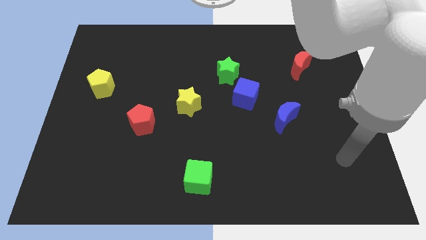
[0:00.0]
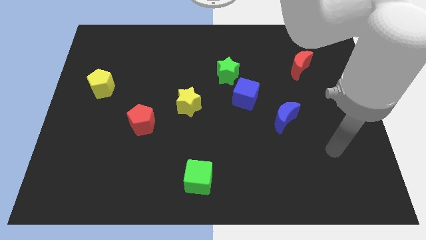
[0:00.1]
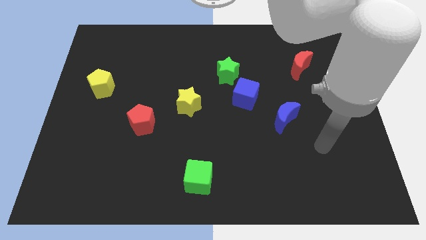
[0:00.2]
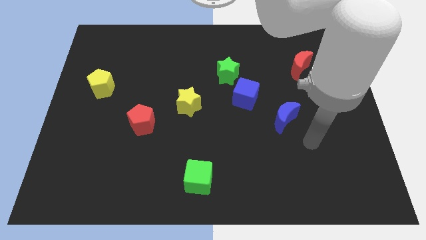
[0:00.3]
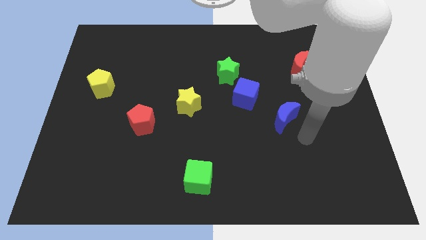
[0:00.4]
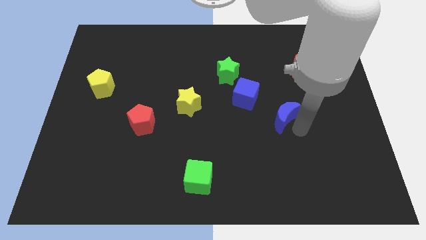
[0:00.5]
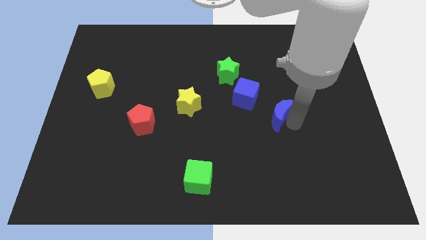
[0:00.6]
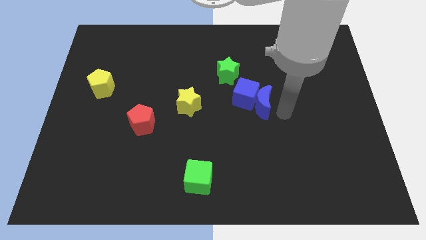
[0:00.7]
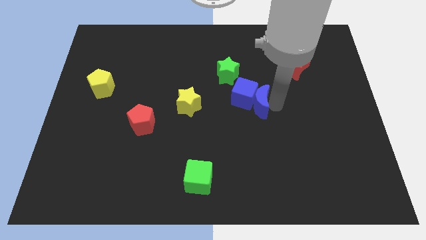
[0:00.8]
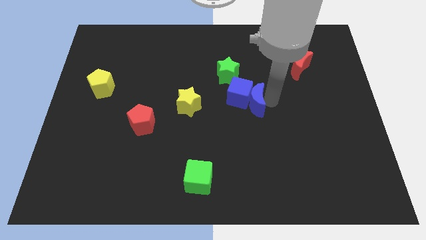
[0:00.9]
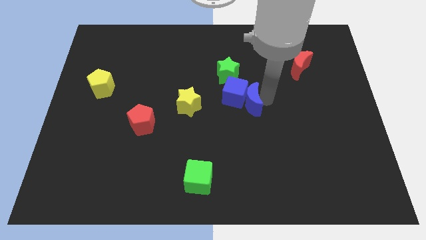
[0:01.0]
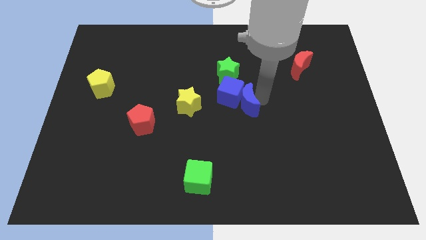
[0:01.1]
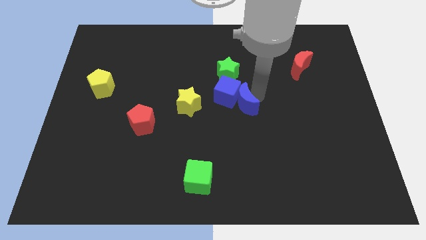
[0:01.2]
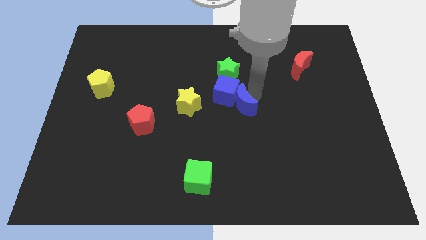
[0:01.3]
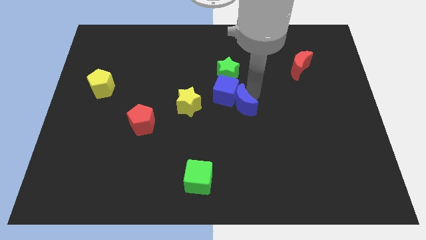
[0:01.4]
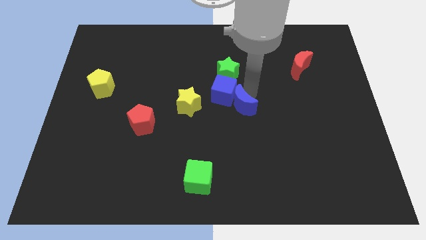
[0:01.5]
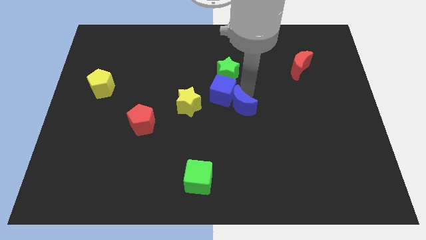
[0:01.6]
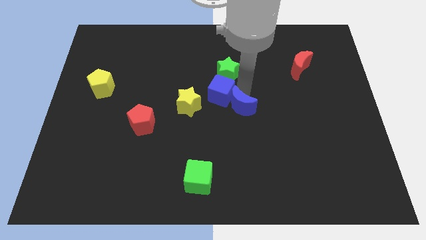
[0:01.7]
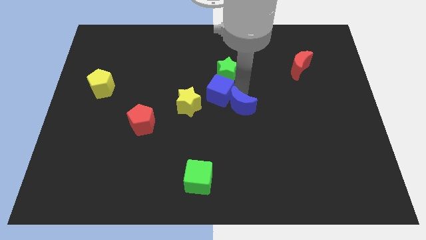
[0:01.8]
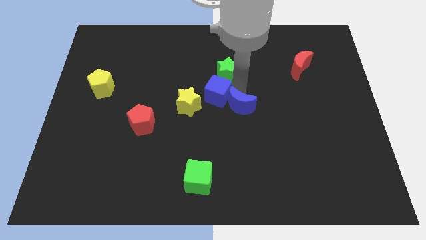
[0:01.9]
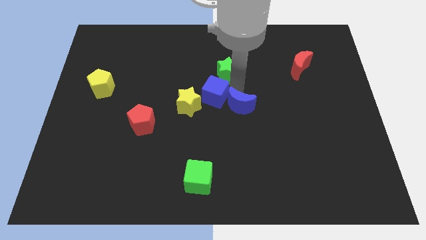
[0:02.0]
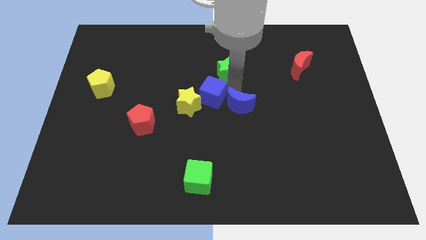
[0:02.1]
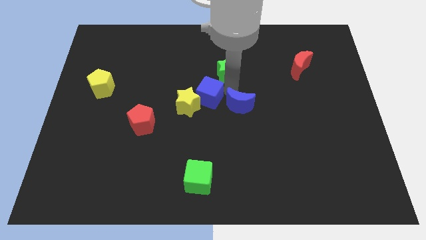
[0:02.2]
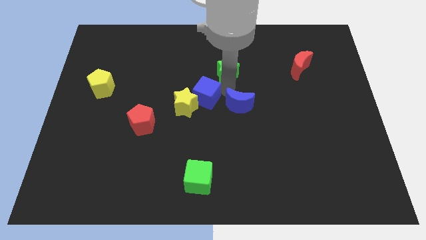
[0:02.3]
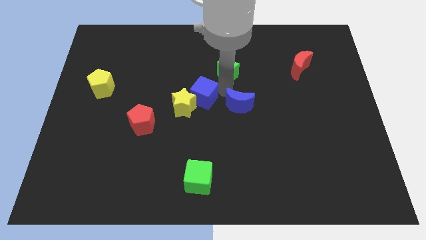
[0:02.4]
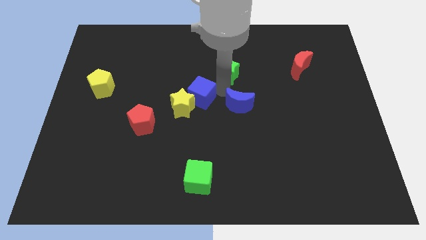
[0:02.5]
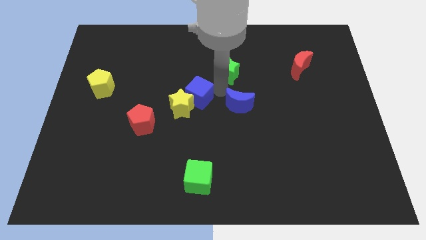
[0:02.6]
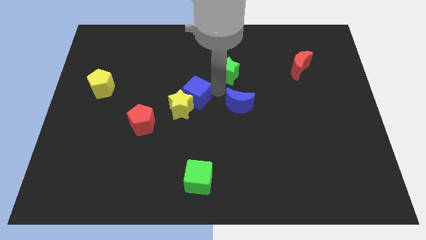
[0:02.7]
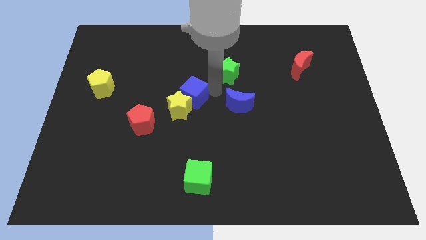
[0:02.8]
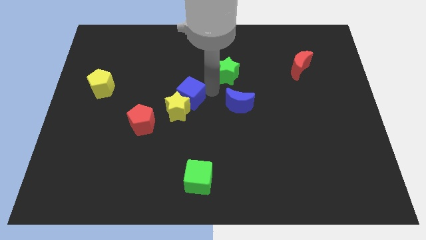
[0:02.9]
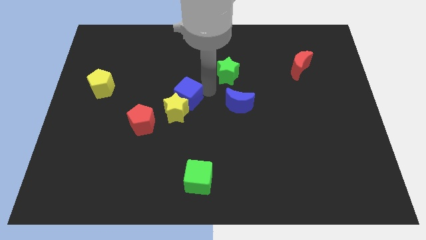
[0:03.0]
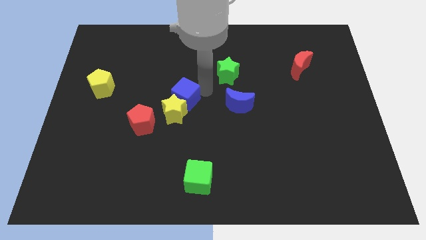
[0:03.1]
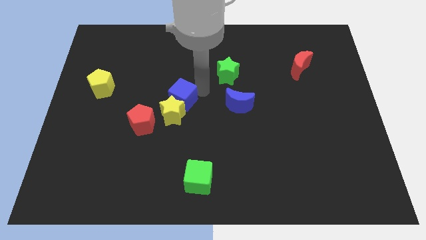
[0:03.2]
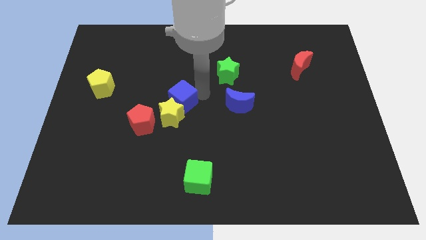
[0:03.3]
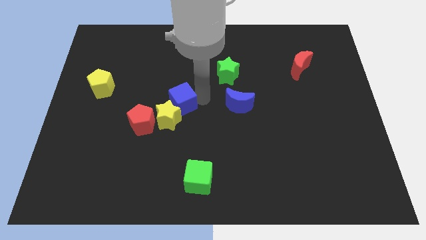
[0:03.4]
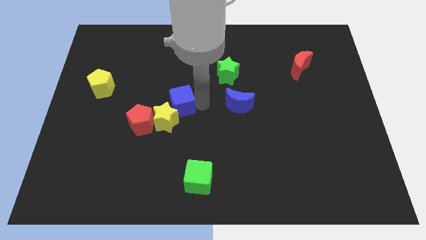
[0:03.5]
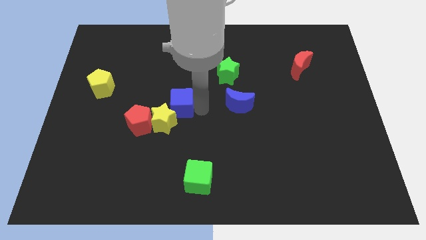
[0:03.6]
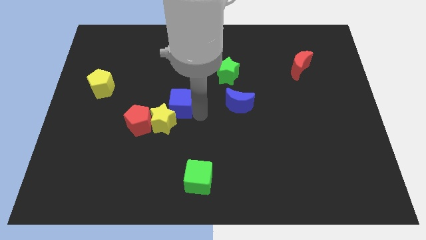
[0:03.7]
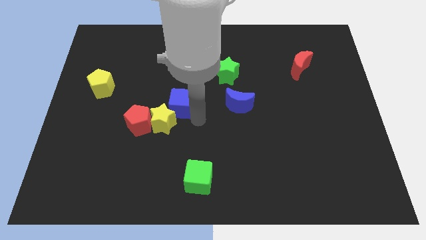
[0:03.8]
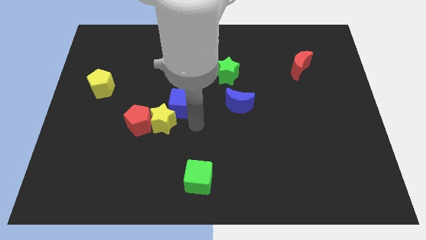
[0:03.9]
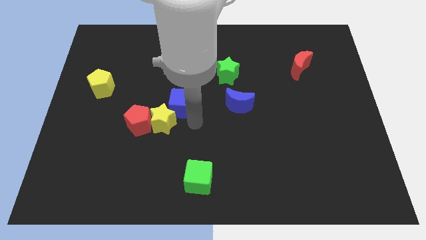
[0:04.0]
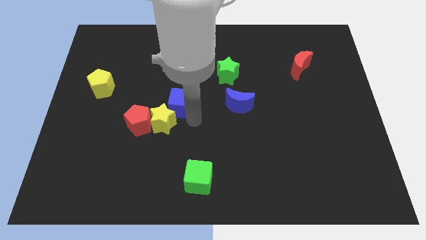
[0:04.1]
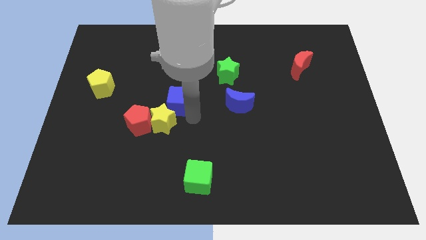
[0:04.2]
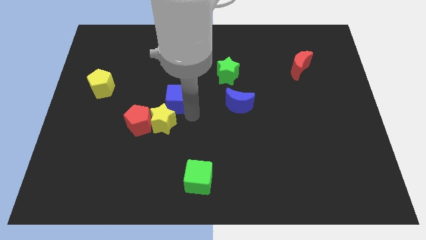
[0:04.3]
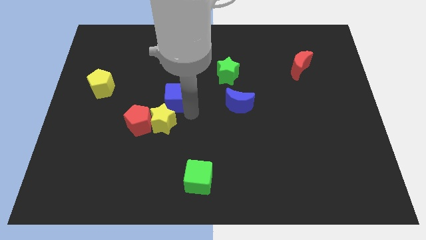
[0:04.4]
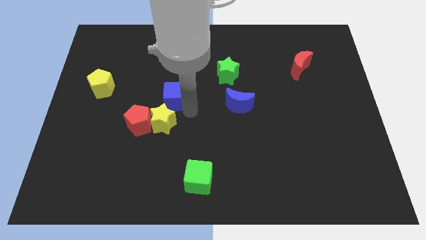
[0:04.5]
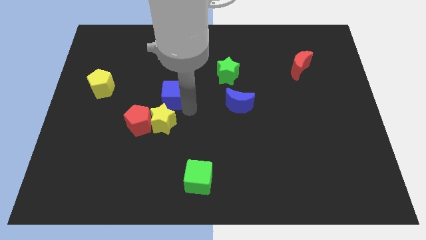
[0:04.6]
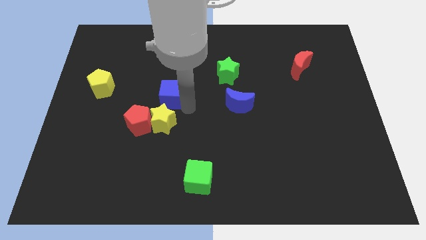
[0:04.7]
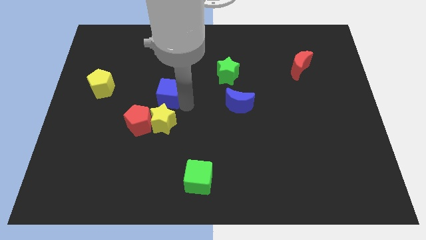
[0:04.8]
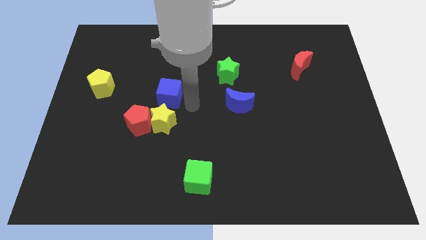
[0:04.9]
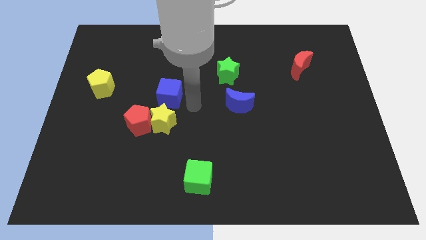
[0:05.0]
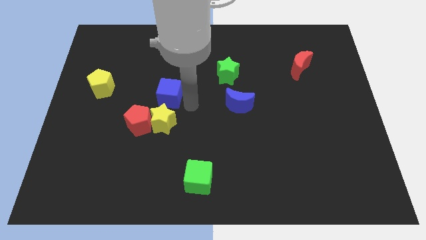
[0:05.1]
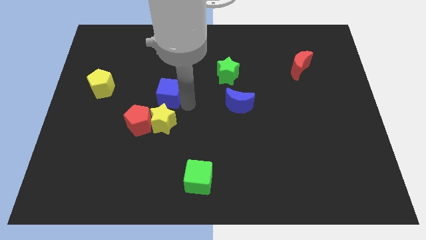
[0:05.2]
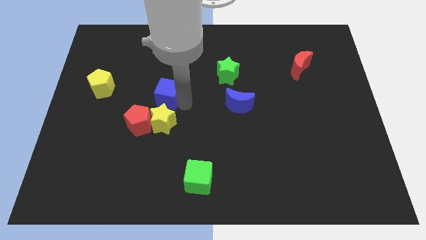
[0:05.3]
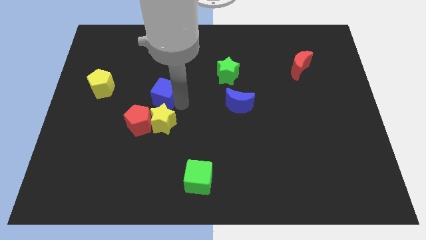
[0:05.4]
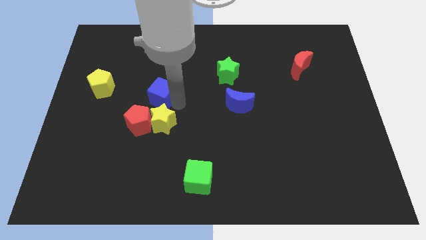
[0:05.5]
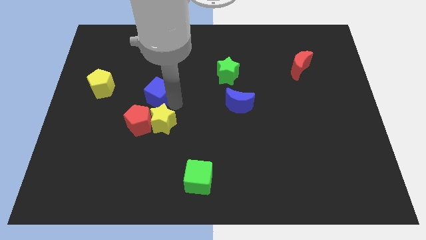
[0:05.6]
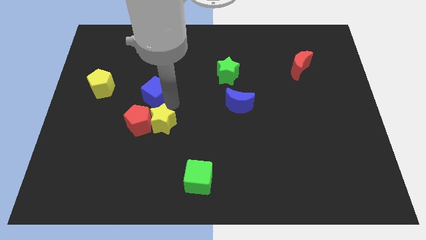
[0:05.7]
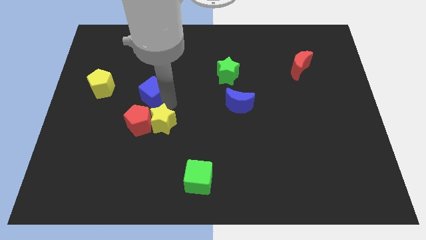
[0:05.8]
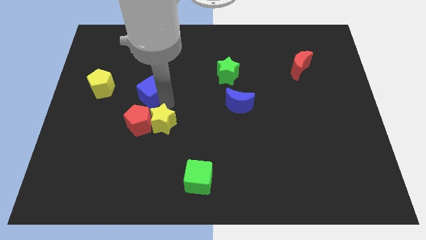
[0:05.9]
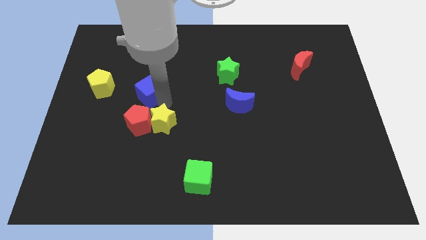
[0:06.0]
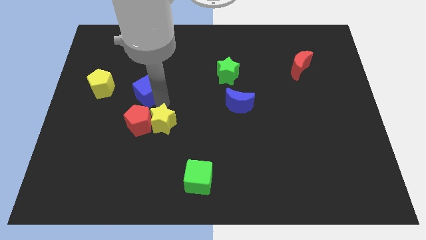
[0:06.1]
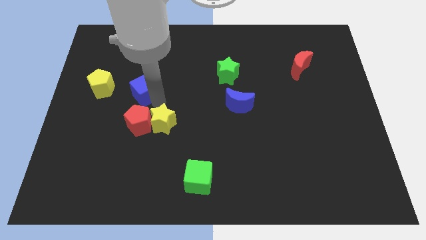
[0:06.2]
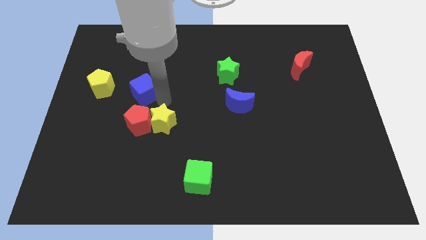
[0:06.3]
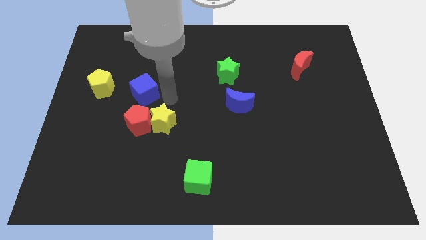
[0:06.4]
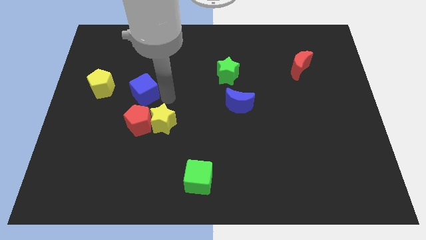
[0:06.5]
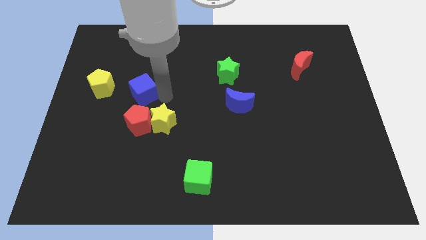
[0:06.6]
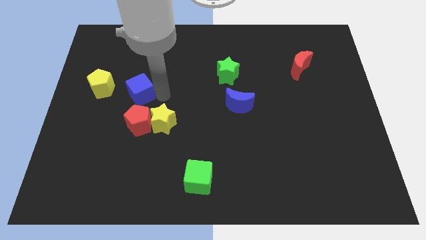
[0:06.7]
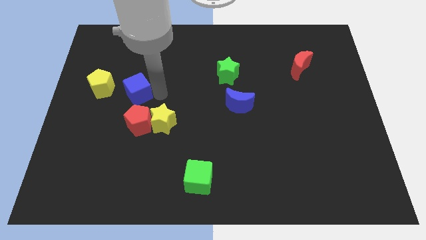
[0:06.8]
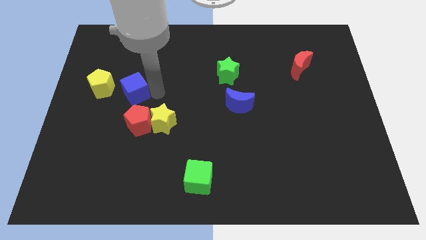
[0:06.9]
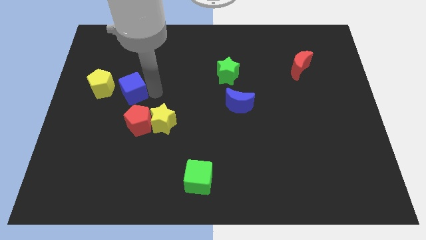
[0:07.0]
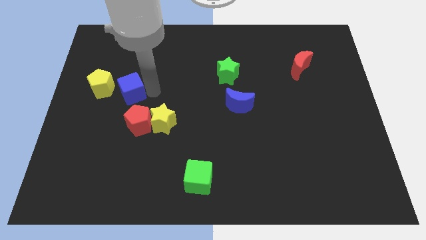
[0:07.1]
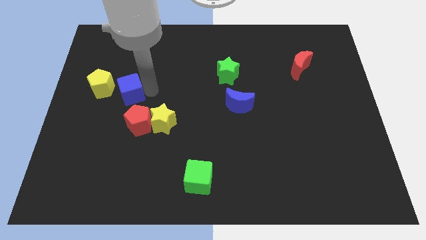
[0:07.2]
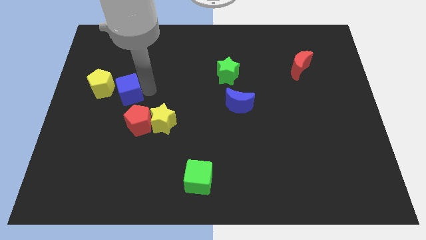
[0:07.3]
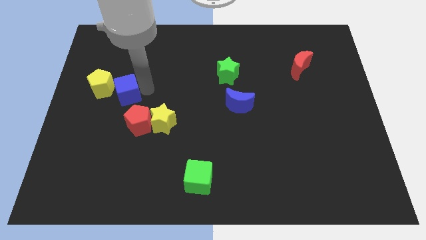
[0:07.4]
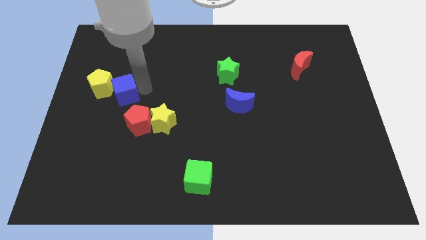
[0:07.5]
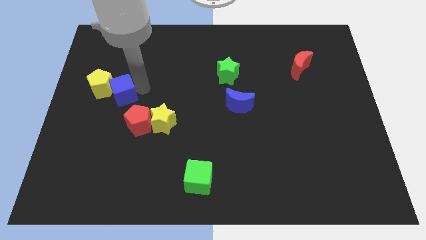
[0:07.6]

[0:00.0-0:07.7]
push the blue cube close to the yellow pentagon
